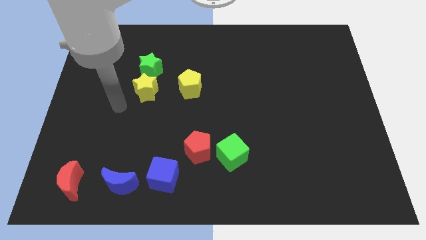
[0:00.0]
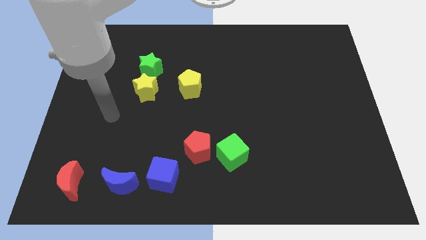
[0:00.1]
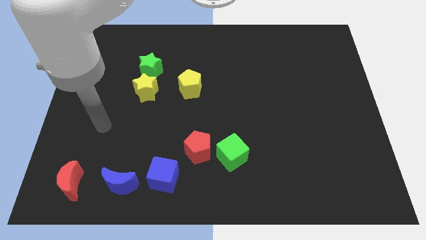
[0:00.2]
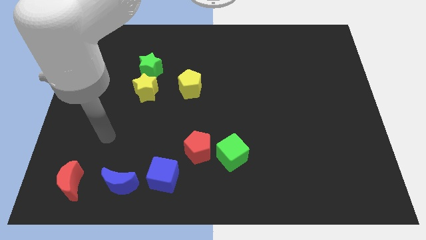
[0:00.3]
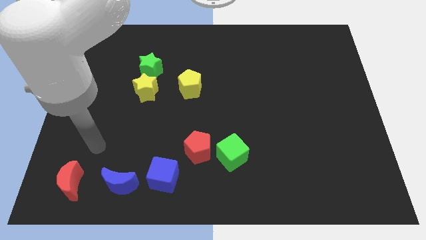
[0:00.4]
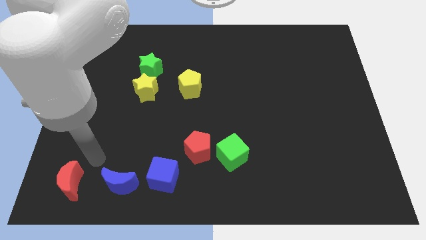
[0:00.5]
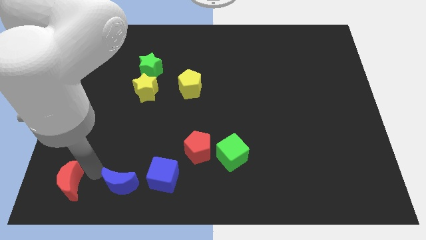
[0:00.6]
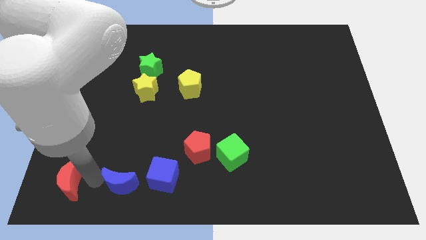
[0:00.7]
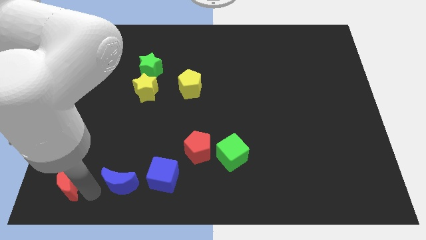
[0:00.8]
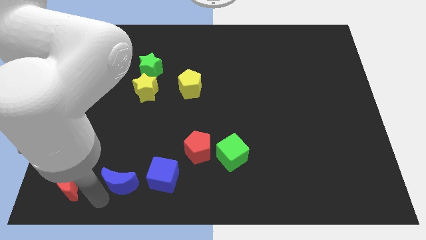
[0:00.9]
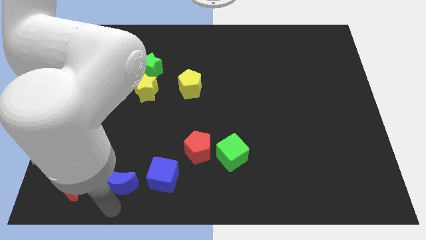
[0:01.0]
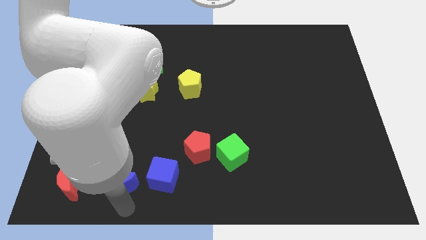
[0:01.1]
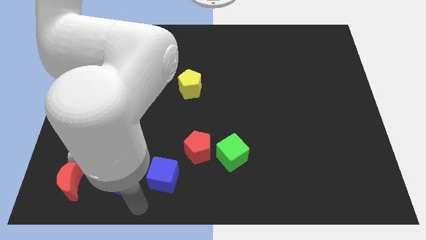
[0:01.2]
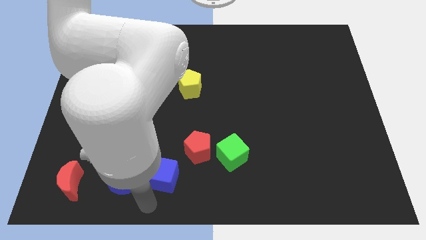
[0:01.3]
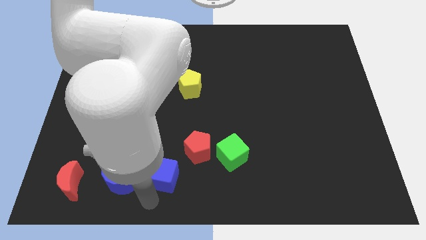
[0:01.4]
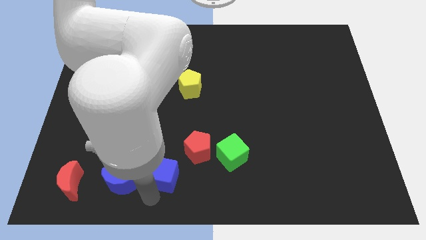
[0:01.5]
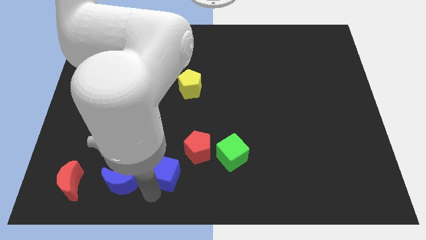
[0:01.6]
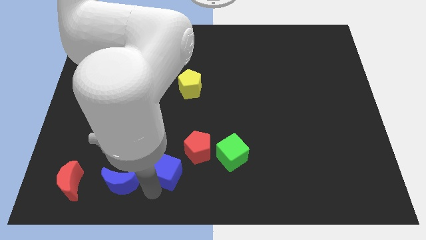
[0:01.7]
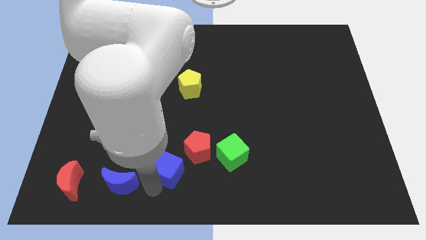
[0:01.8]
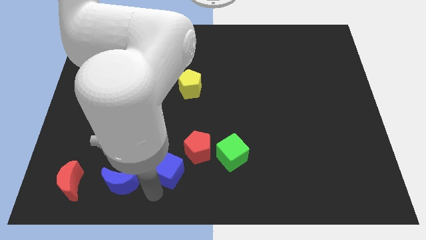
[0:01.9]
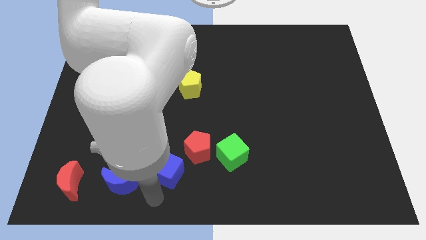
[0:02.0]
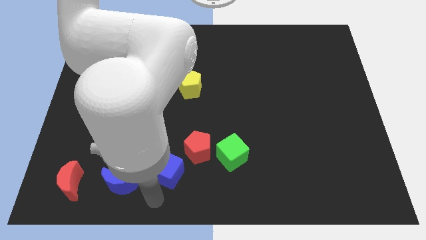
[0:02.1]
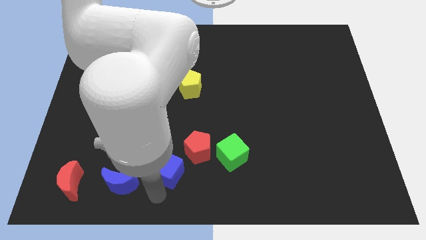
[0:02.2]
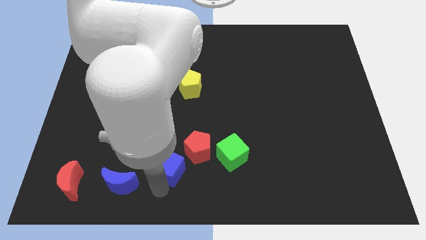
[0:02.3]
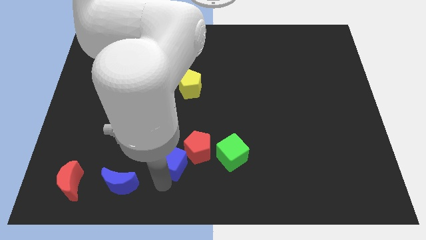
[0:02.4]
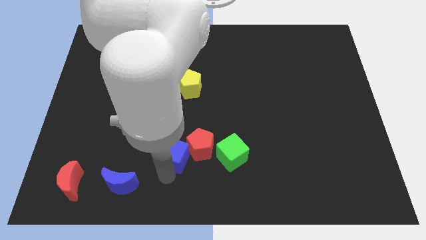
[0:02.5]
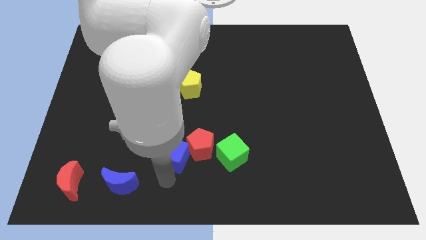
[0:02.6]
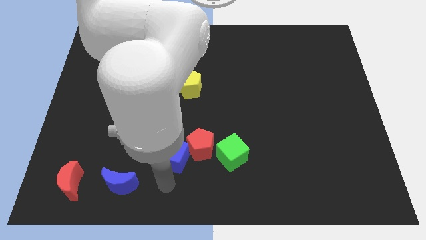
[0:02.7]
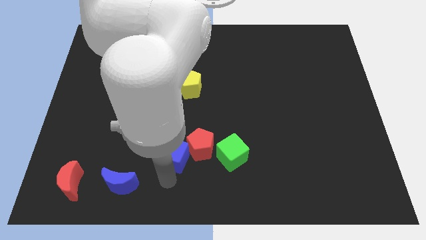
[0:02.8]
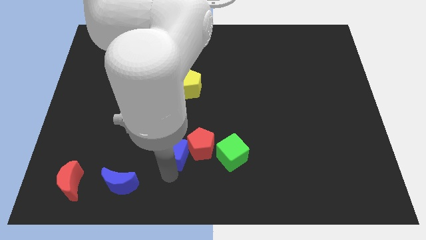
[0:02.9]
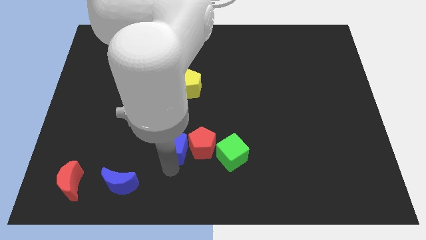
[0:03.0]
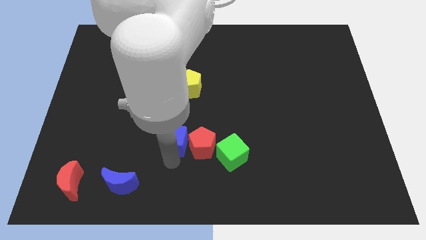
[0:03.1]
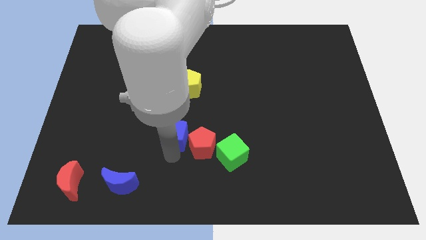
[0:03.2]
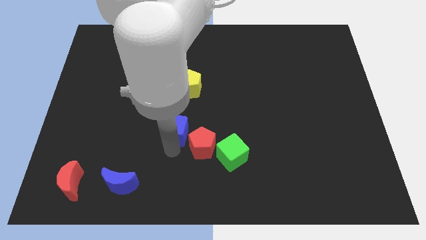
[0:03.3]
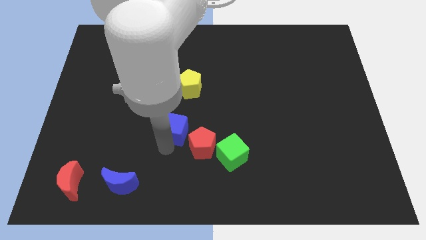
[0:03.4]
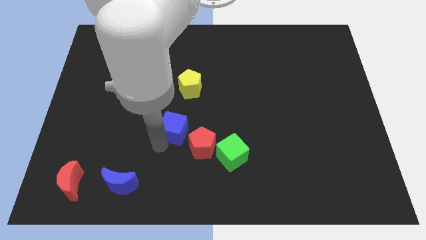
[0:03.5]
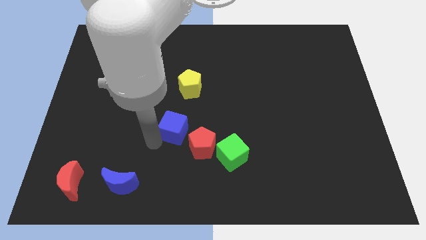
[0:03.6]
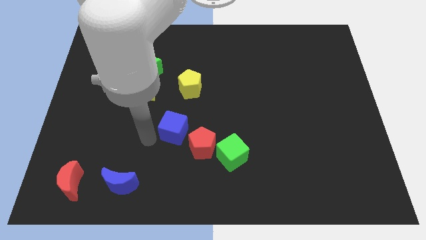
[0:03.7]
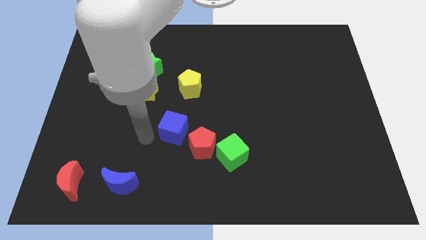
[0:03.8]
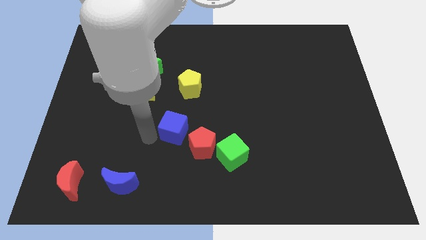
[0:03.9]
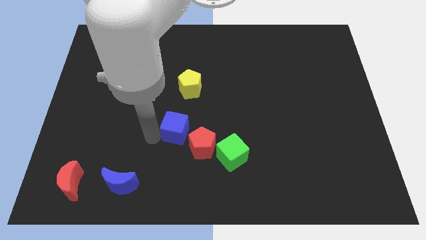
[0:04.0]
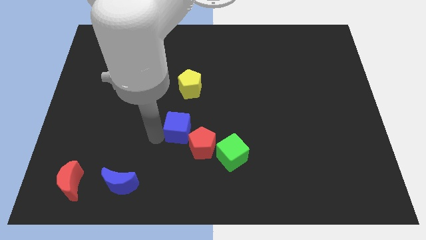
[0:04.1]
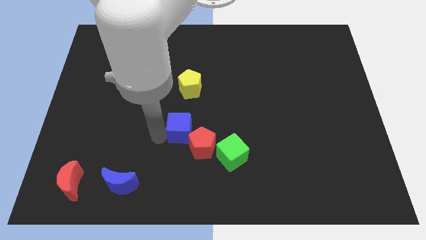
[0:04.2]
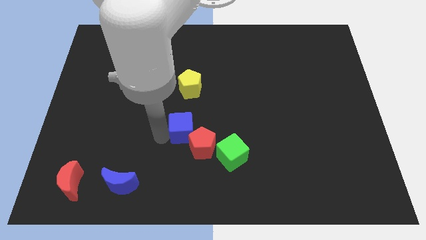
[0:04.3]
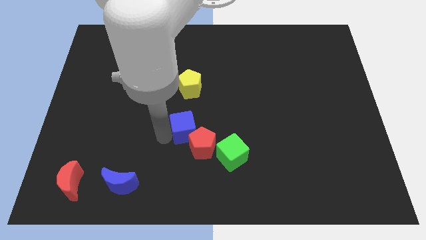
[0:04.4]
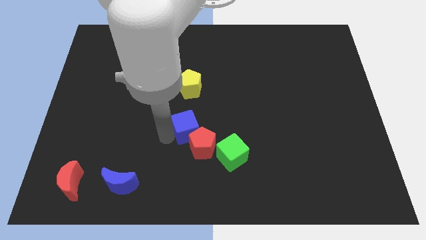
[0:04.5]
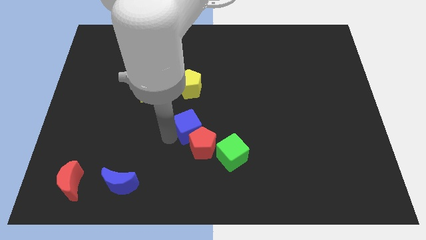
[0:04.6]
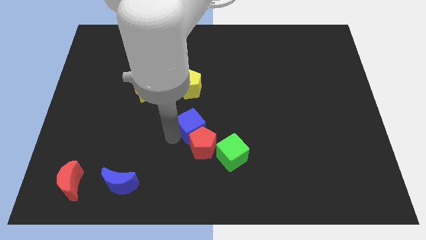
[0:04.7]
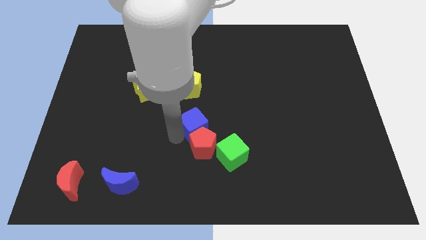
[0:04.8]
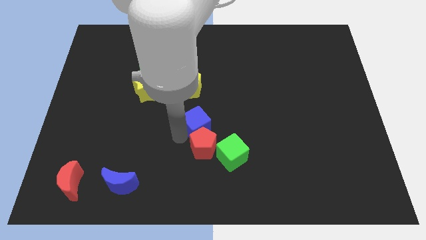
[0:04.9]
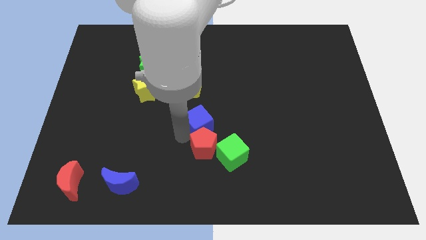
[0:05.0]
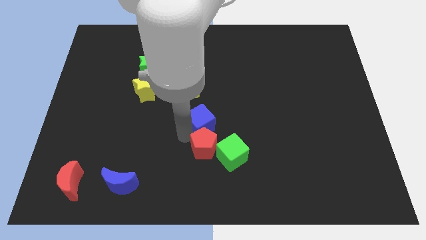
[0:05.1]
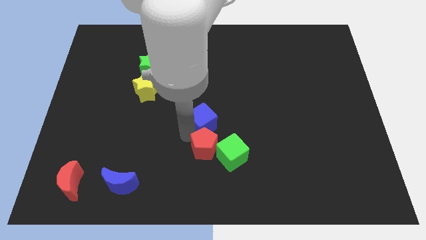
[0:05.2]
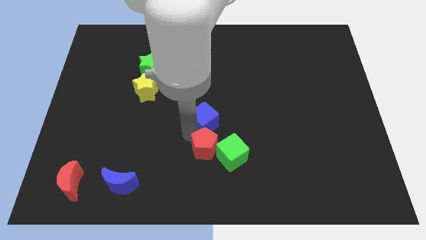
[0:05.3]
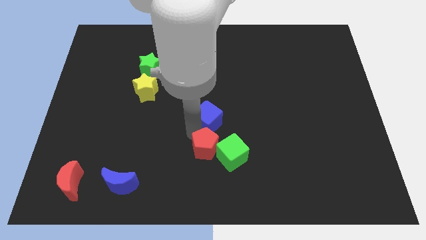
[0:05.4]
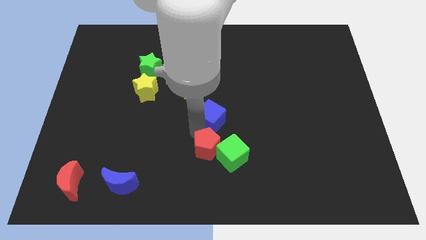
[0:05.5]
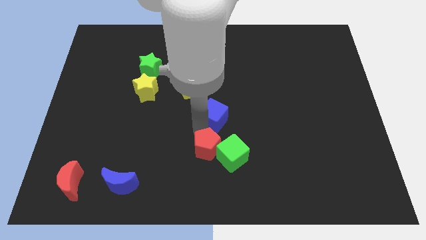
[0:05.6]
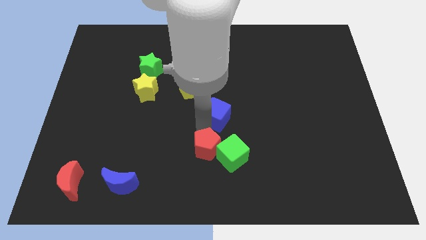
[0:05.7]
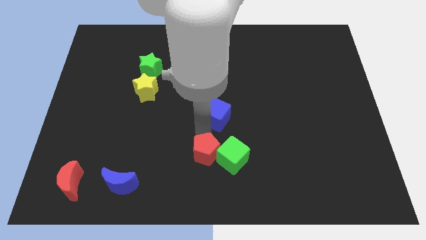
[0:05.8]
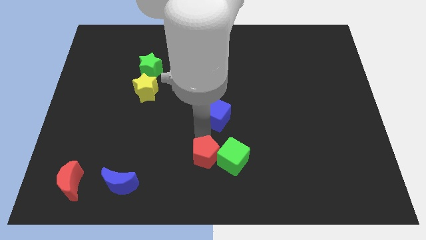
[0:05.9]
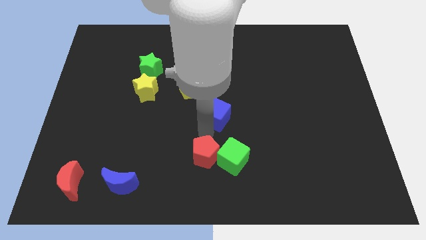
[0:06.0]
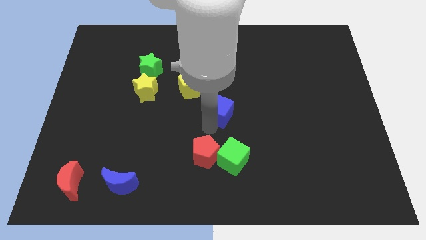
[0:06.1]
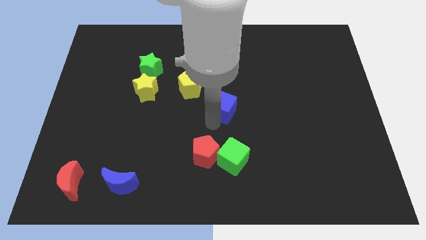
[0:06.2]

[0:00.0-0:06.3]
push the blue cube up and right diagonally

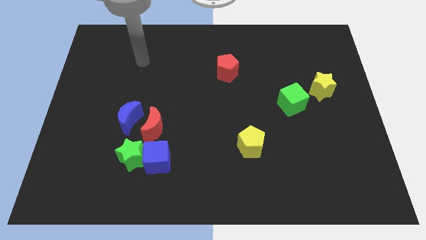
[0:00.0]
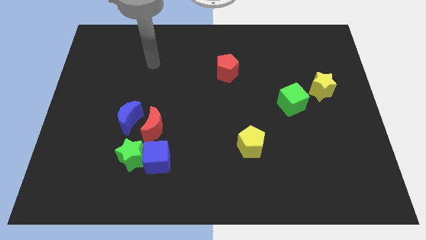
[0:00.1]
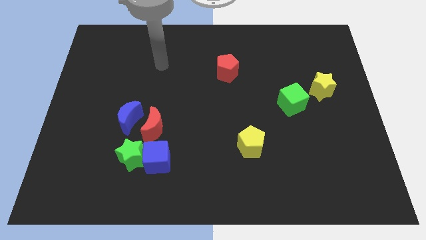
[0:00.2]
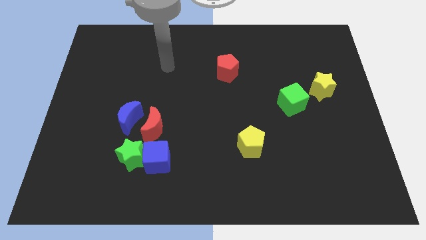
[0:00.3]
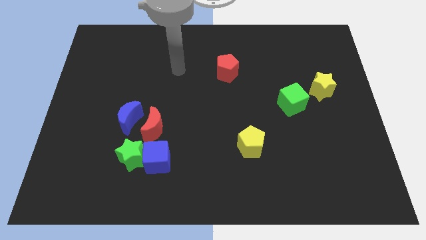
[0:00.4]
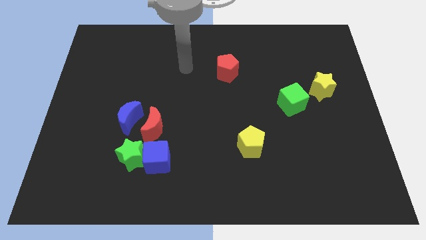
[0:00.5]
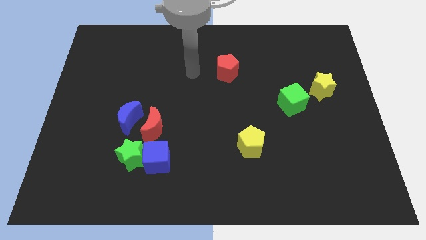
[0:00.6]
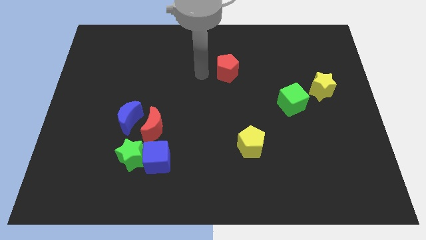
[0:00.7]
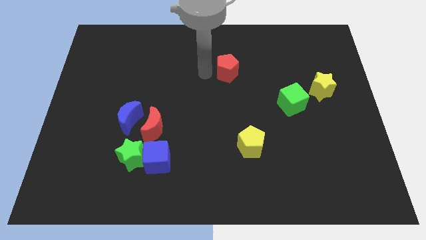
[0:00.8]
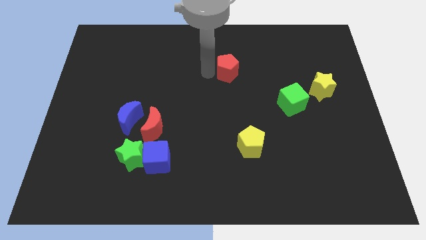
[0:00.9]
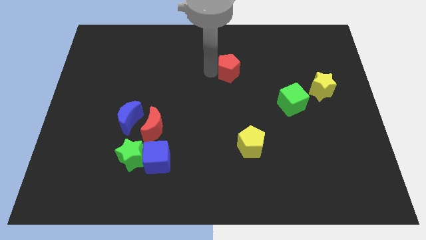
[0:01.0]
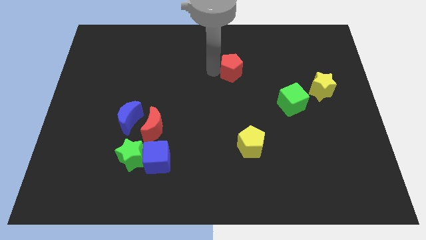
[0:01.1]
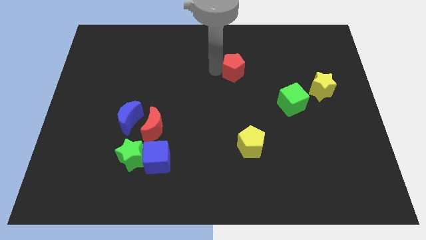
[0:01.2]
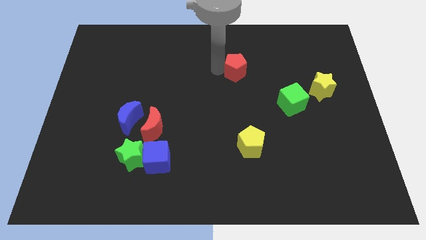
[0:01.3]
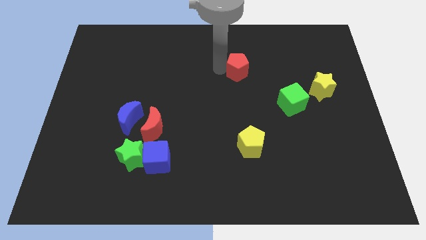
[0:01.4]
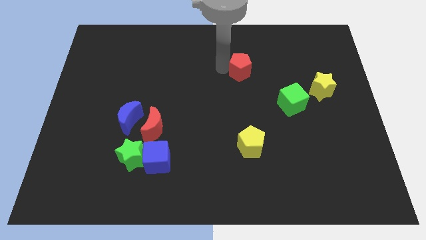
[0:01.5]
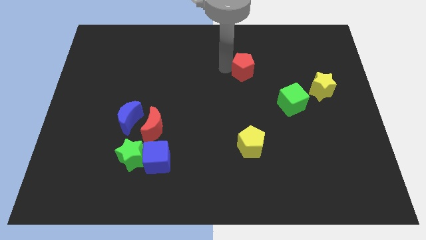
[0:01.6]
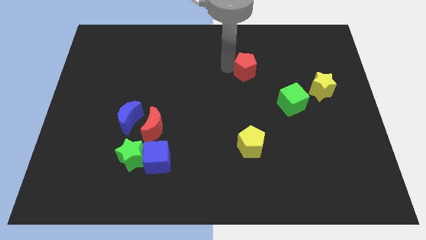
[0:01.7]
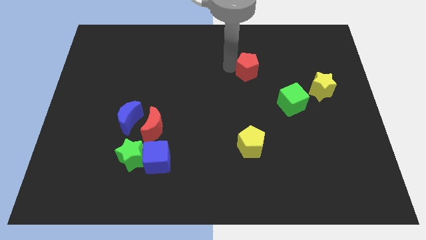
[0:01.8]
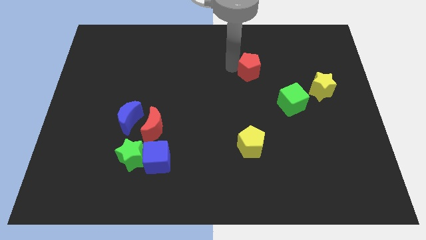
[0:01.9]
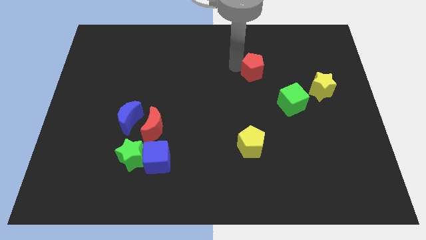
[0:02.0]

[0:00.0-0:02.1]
slightly push the red pentagon right
